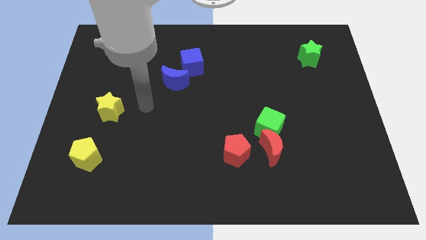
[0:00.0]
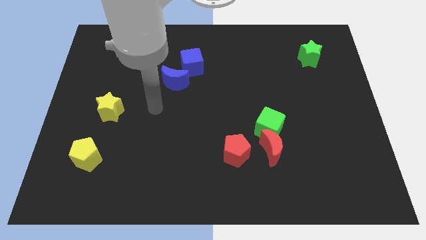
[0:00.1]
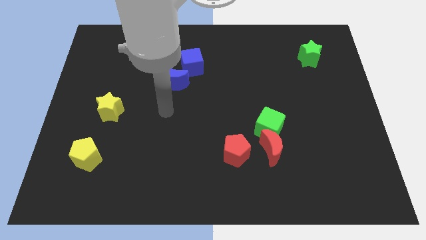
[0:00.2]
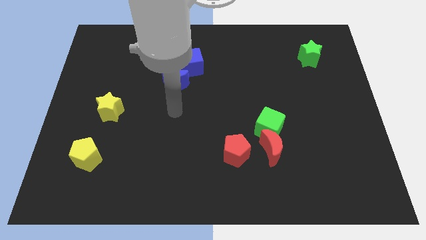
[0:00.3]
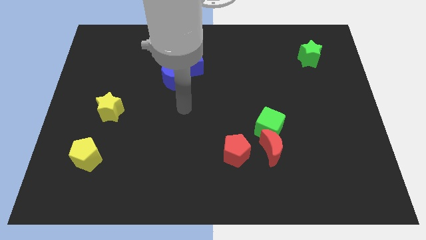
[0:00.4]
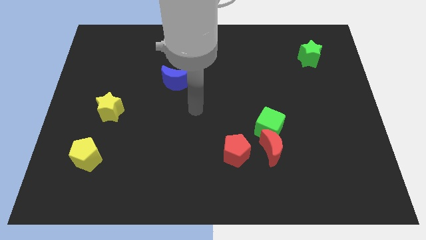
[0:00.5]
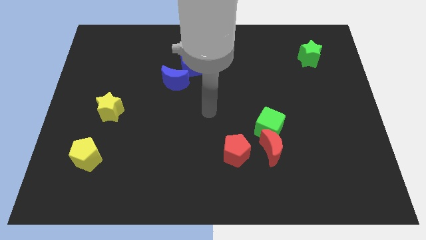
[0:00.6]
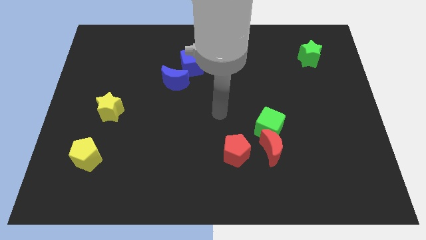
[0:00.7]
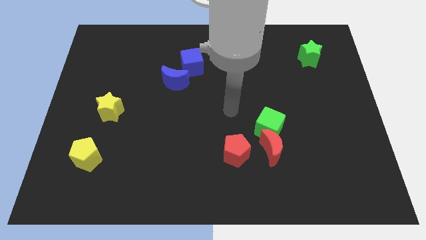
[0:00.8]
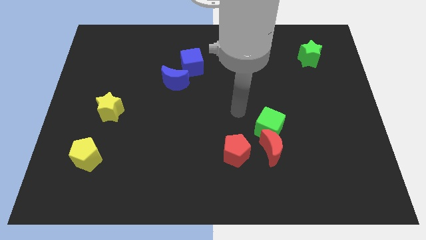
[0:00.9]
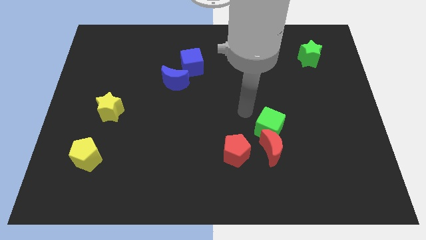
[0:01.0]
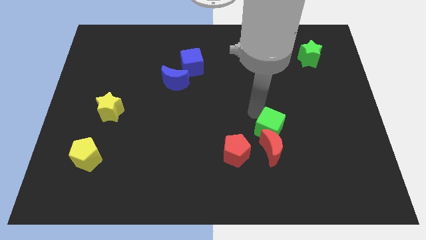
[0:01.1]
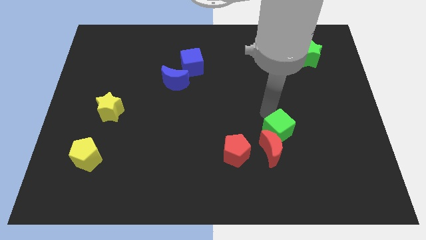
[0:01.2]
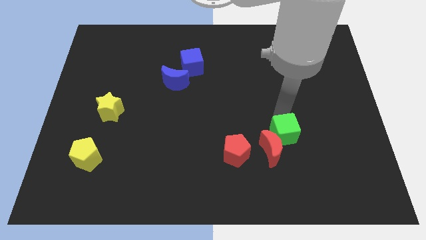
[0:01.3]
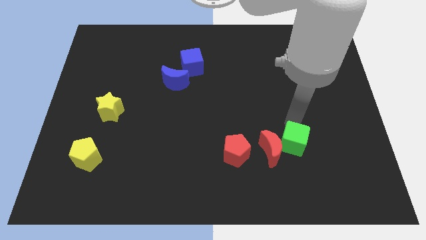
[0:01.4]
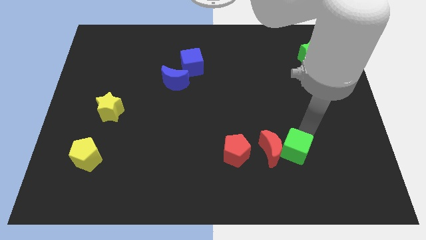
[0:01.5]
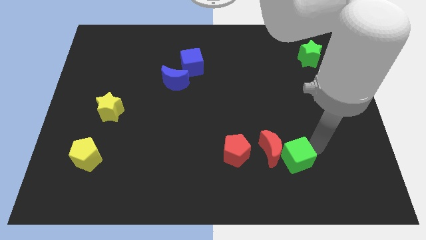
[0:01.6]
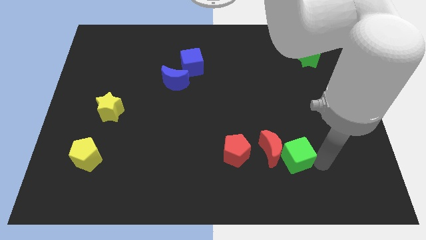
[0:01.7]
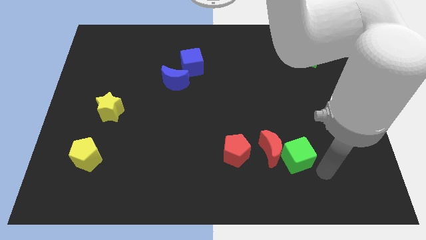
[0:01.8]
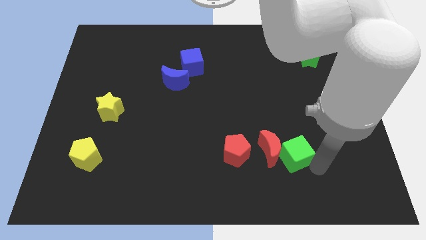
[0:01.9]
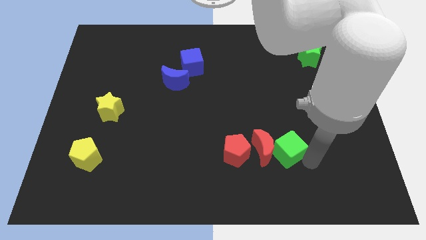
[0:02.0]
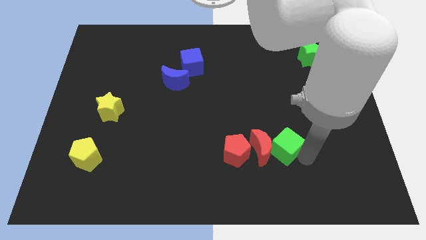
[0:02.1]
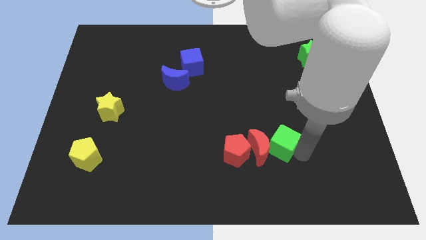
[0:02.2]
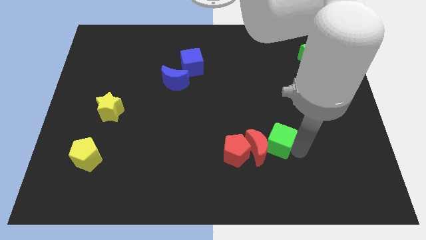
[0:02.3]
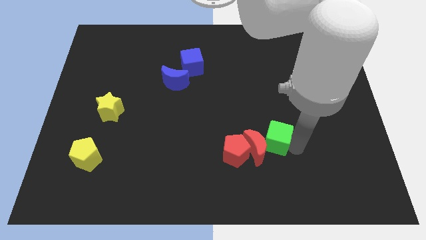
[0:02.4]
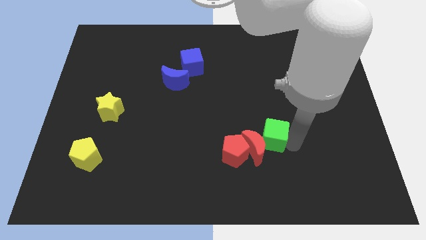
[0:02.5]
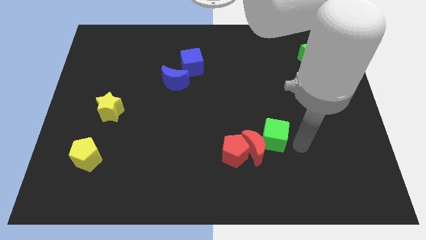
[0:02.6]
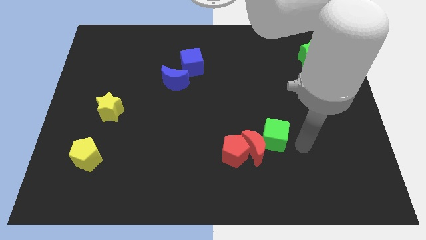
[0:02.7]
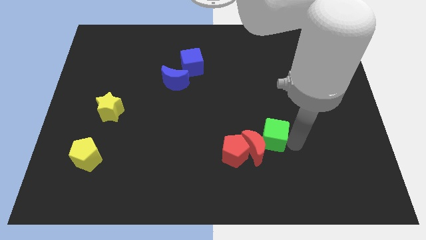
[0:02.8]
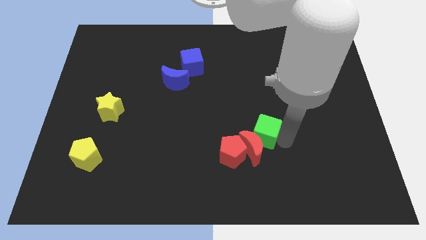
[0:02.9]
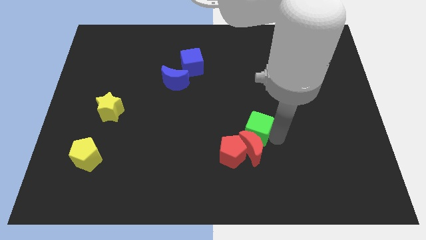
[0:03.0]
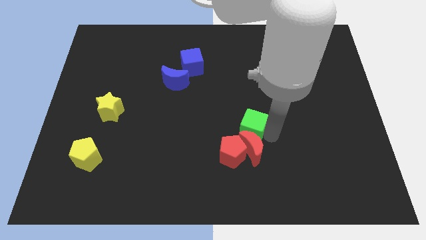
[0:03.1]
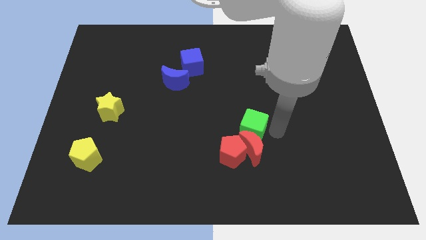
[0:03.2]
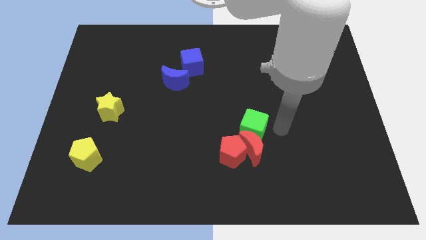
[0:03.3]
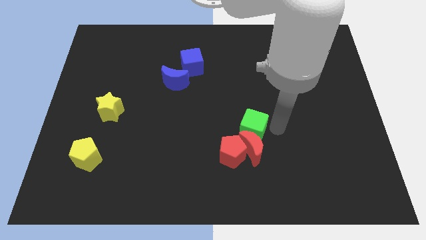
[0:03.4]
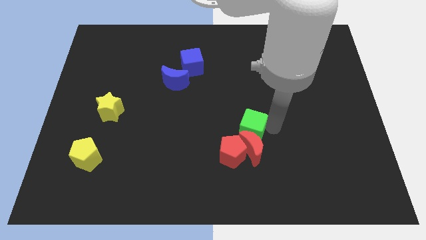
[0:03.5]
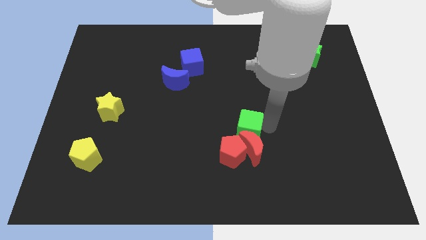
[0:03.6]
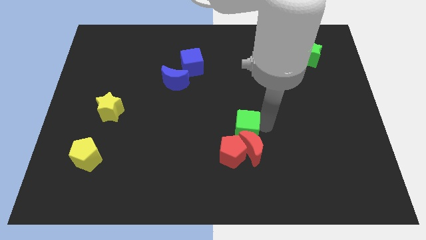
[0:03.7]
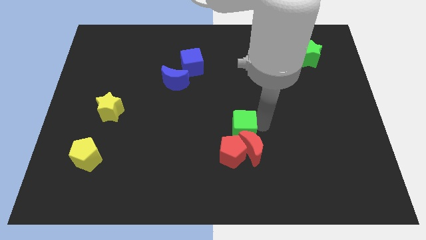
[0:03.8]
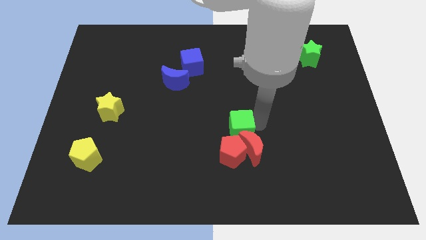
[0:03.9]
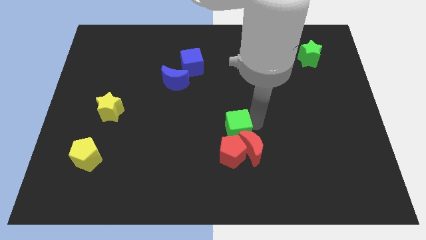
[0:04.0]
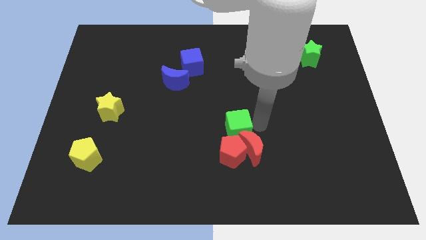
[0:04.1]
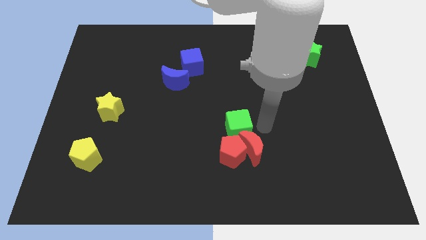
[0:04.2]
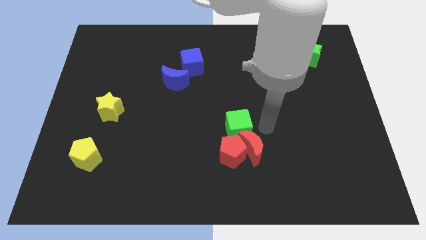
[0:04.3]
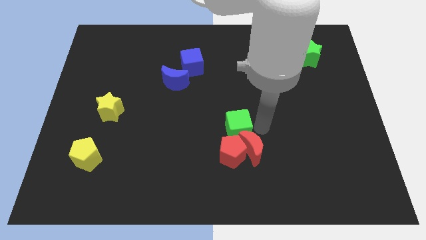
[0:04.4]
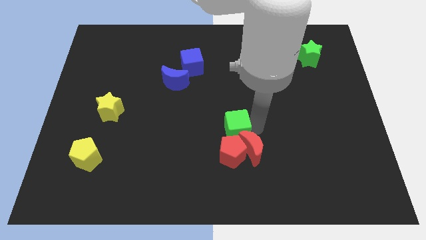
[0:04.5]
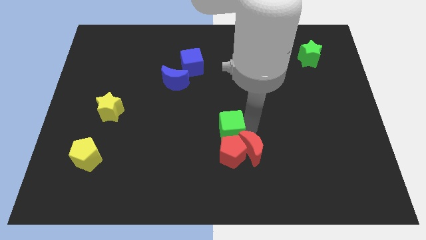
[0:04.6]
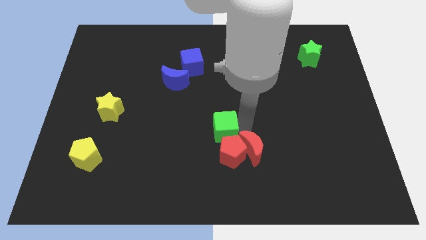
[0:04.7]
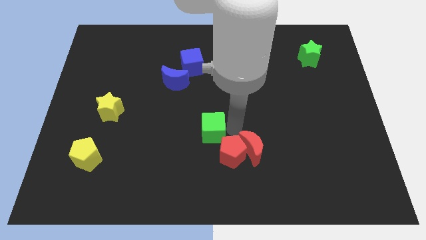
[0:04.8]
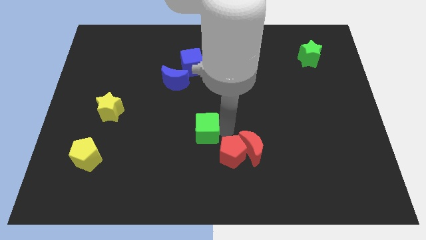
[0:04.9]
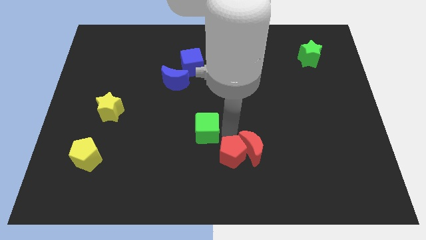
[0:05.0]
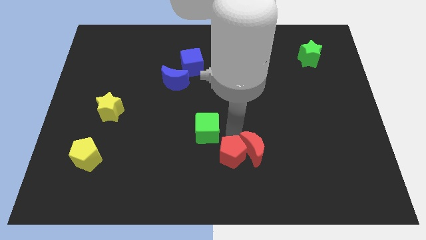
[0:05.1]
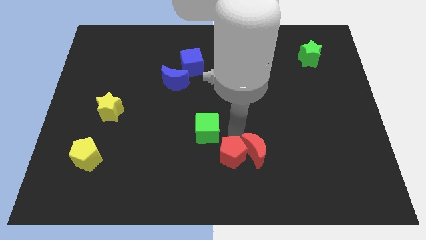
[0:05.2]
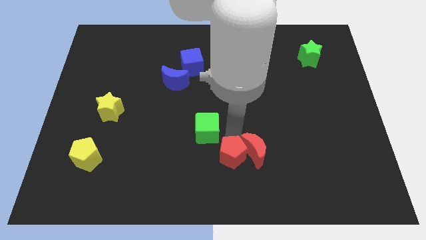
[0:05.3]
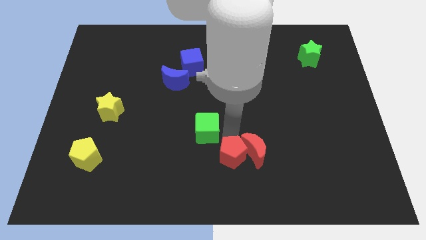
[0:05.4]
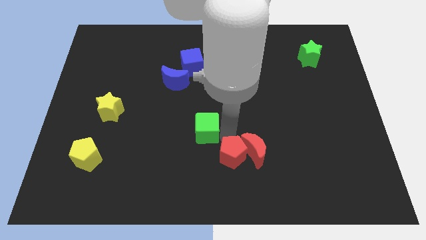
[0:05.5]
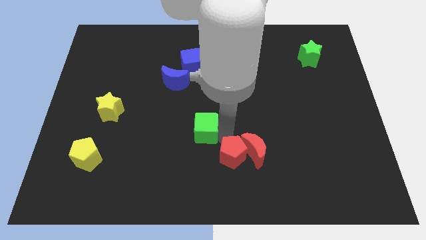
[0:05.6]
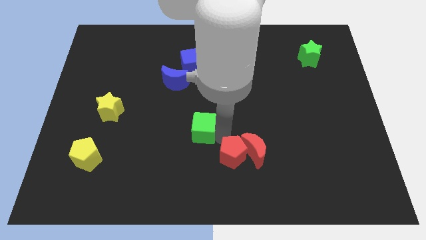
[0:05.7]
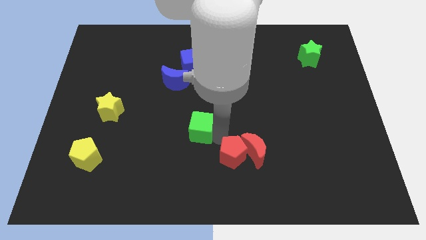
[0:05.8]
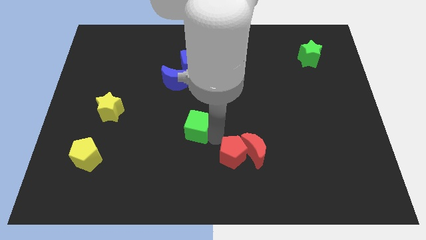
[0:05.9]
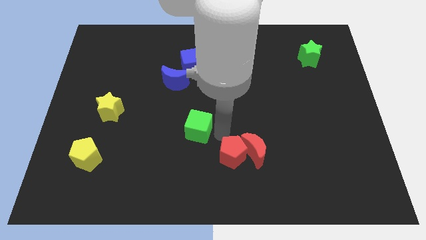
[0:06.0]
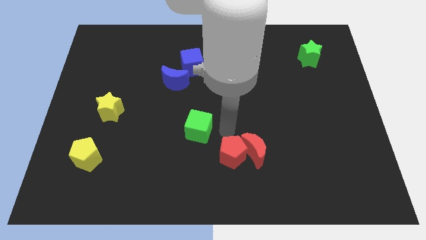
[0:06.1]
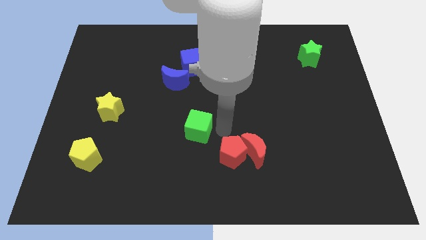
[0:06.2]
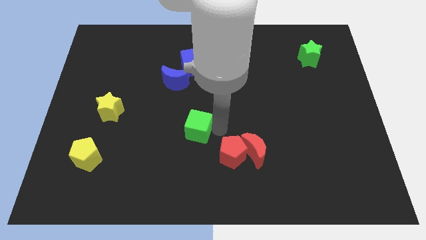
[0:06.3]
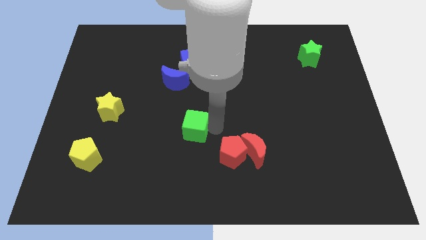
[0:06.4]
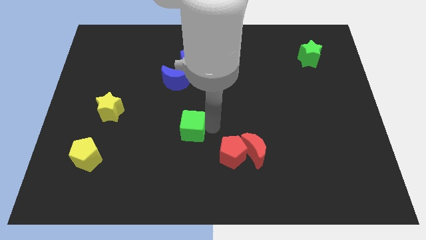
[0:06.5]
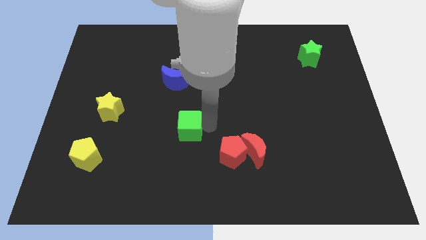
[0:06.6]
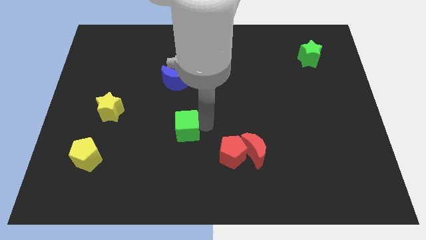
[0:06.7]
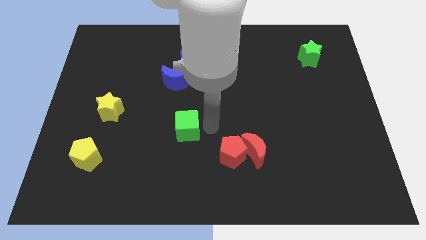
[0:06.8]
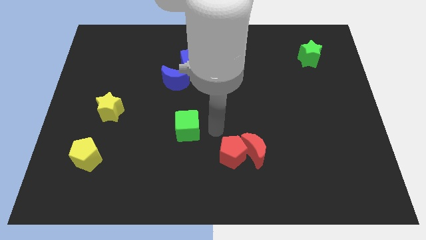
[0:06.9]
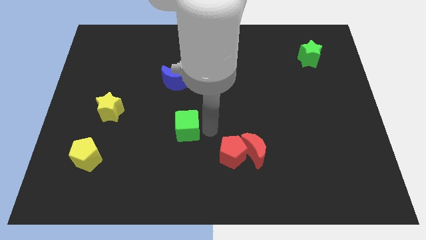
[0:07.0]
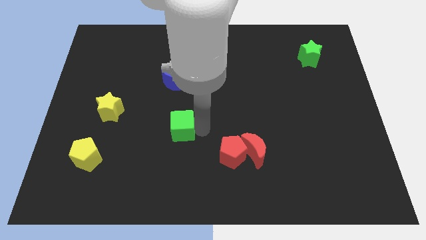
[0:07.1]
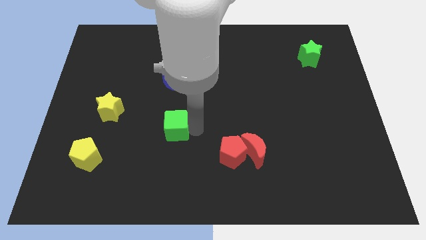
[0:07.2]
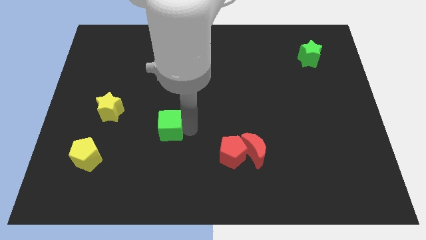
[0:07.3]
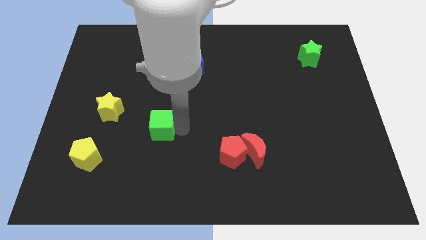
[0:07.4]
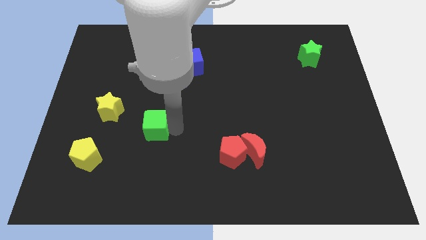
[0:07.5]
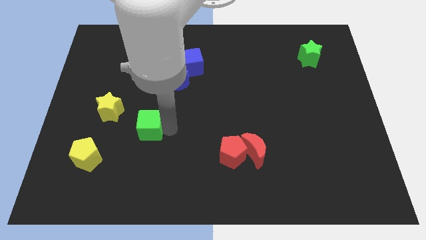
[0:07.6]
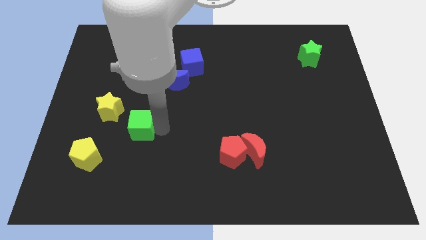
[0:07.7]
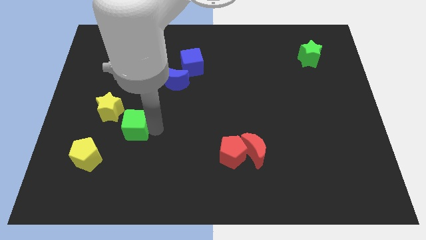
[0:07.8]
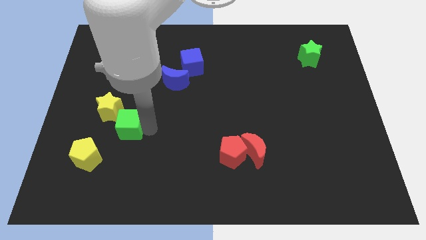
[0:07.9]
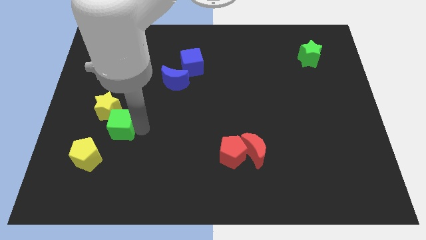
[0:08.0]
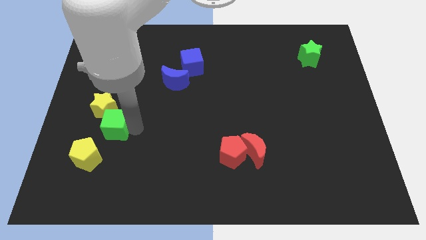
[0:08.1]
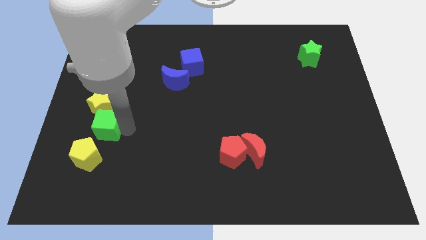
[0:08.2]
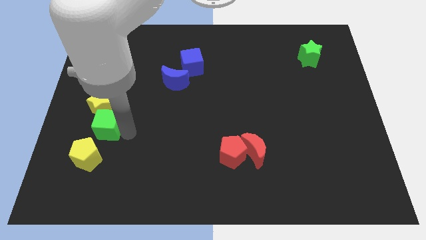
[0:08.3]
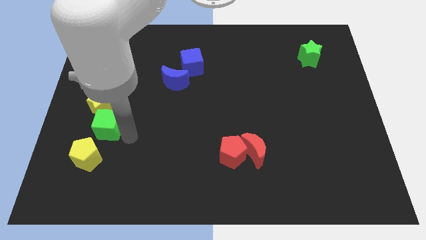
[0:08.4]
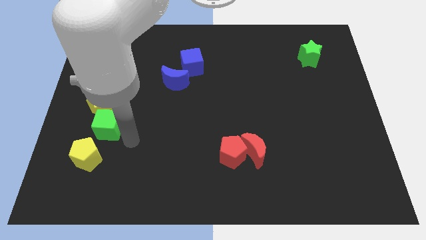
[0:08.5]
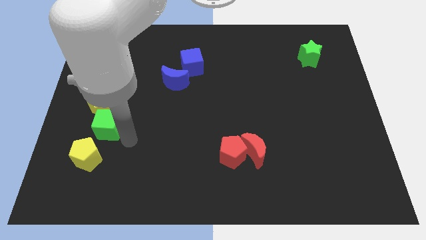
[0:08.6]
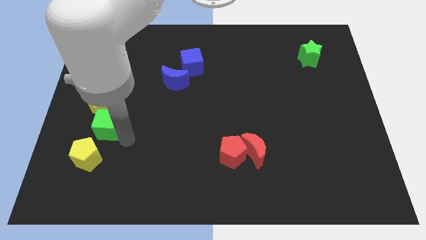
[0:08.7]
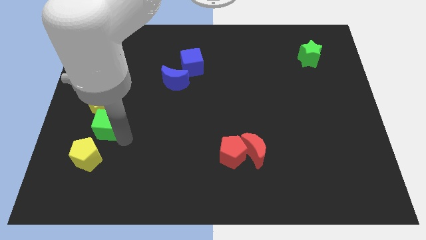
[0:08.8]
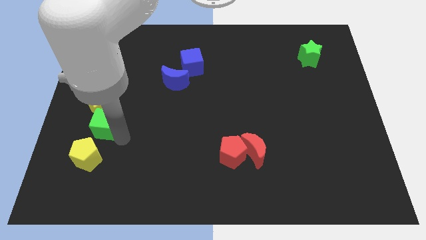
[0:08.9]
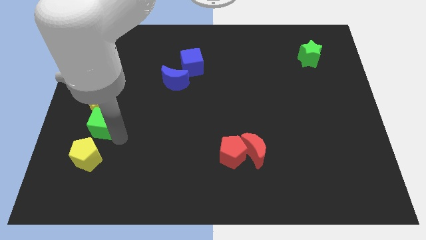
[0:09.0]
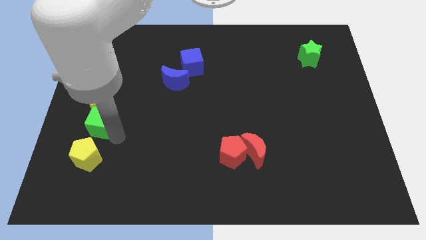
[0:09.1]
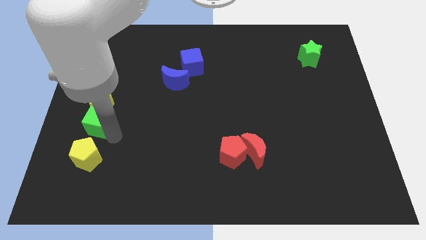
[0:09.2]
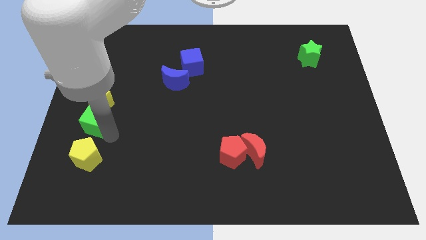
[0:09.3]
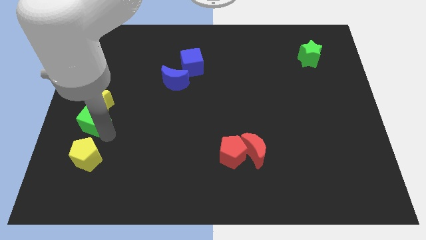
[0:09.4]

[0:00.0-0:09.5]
slide the green cube to the left side
